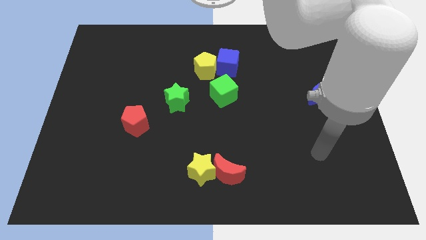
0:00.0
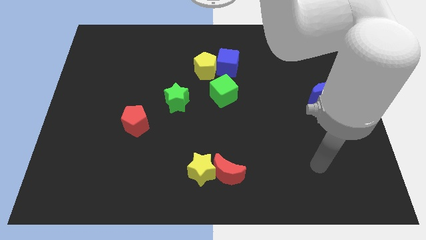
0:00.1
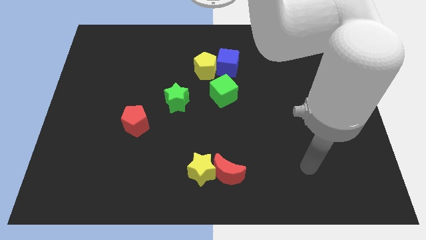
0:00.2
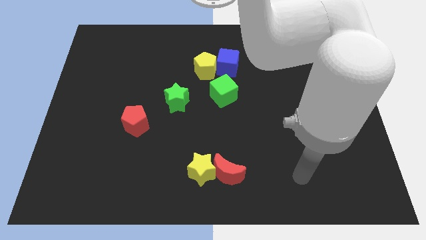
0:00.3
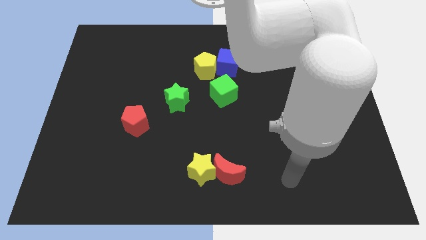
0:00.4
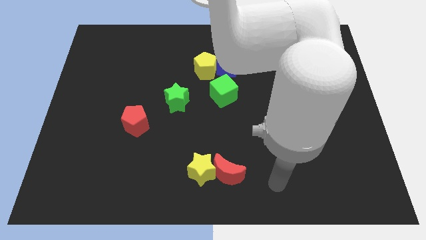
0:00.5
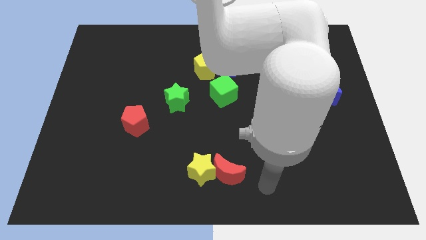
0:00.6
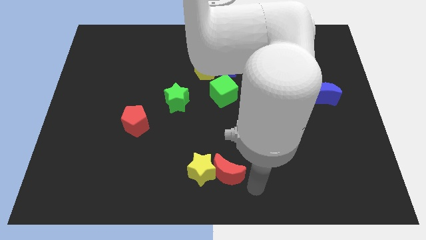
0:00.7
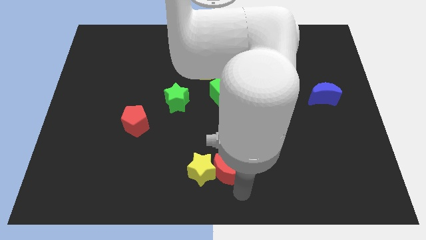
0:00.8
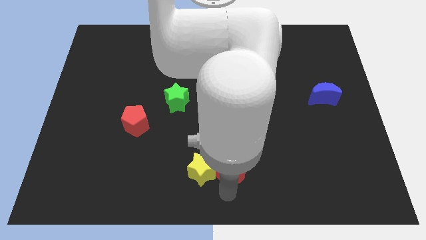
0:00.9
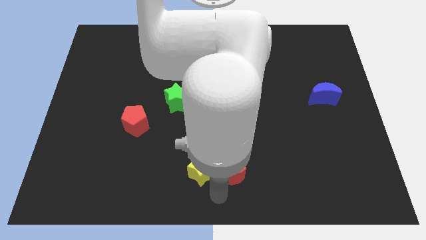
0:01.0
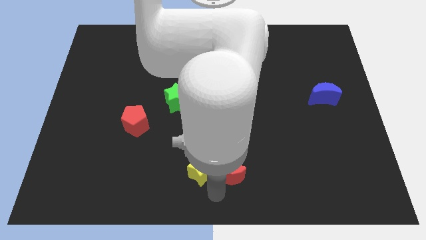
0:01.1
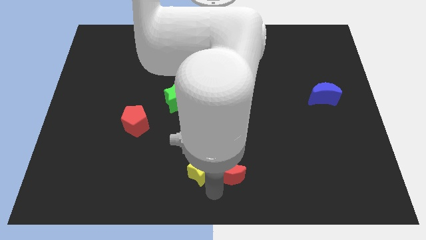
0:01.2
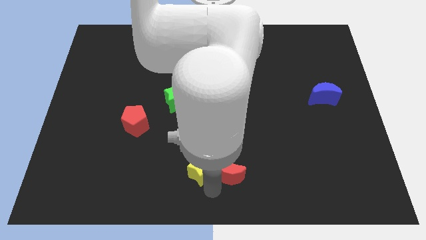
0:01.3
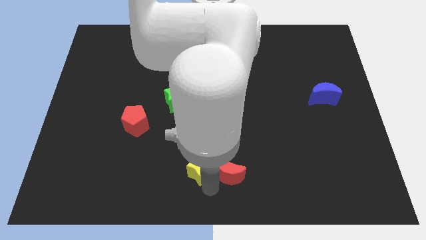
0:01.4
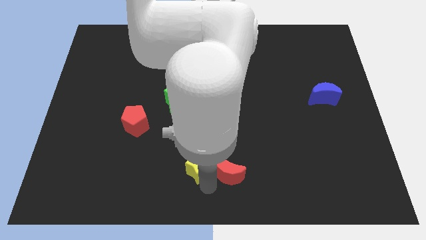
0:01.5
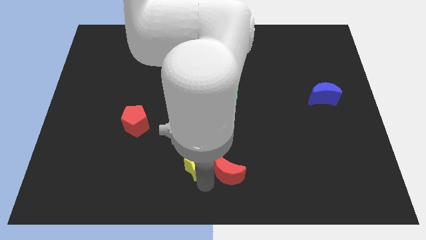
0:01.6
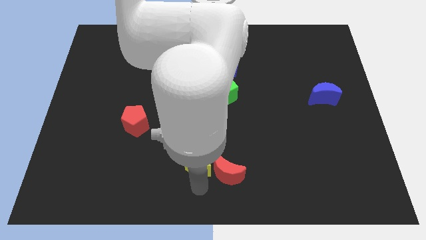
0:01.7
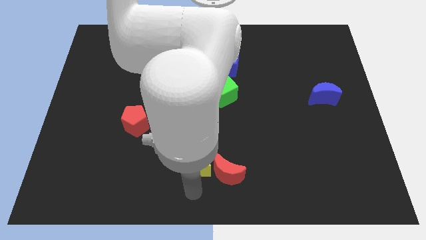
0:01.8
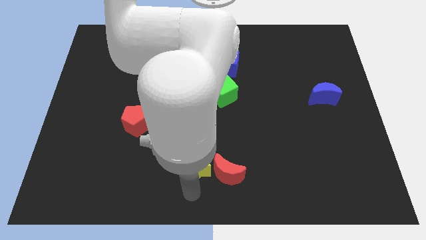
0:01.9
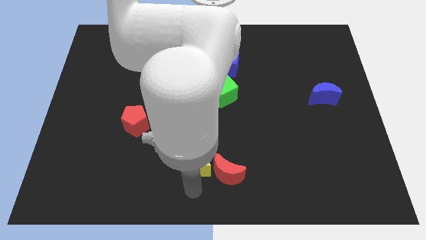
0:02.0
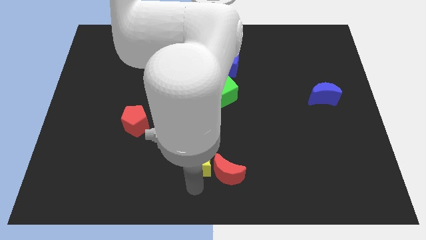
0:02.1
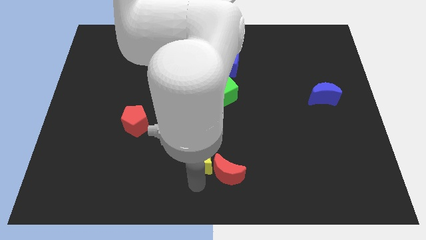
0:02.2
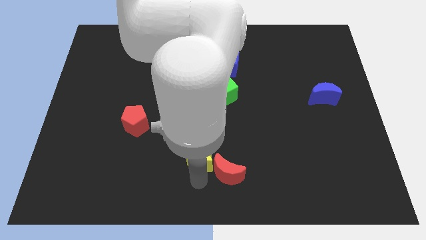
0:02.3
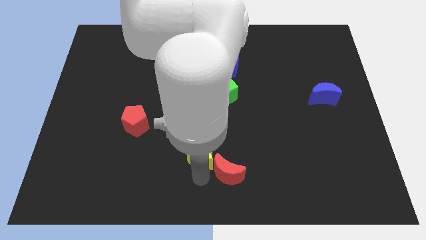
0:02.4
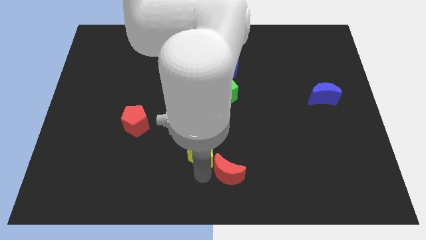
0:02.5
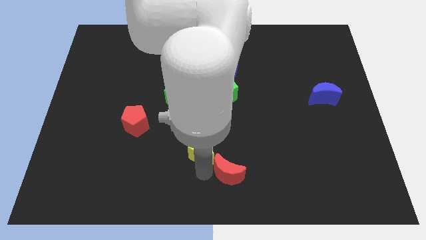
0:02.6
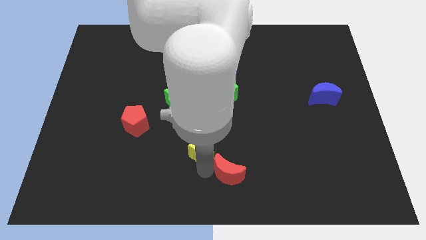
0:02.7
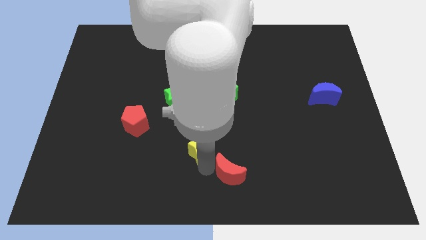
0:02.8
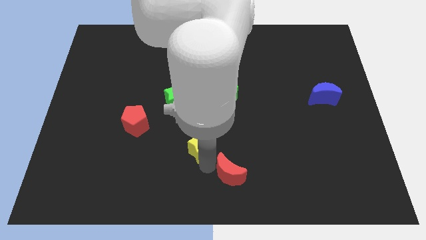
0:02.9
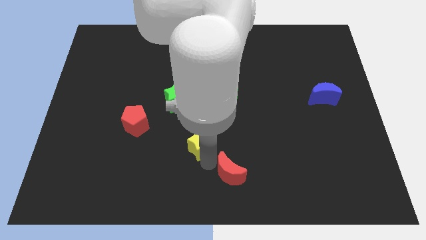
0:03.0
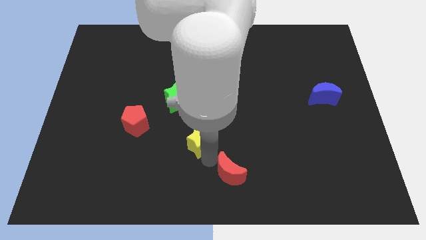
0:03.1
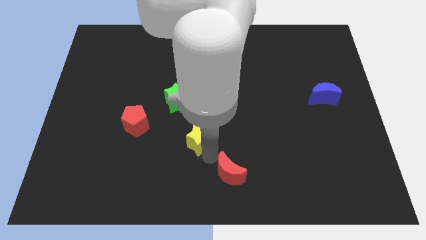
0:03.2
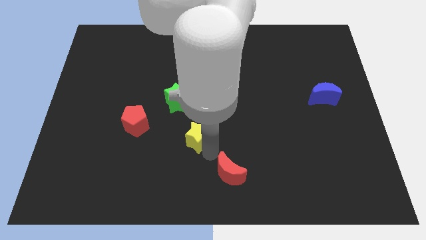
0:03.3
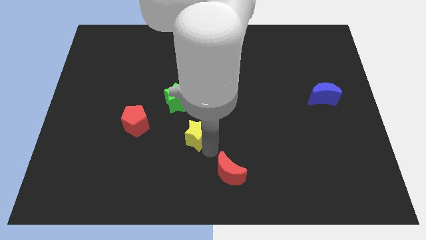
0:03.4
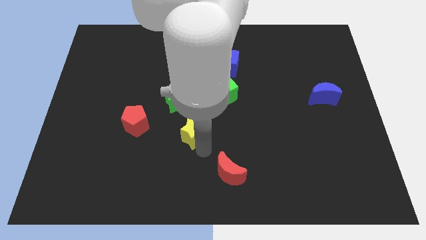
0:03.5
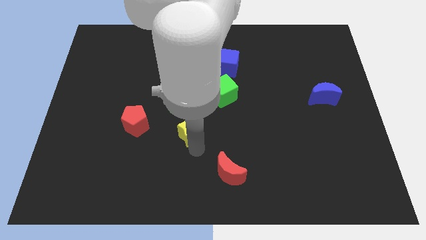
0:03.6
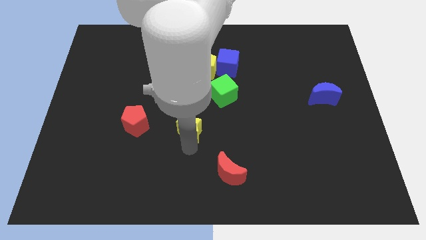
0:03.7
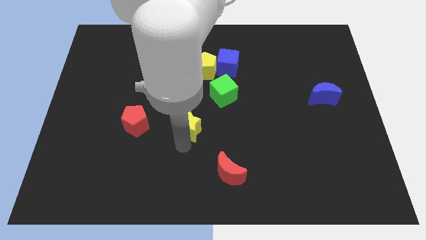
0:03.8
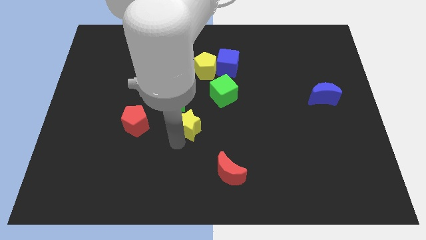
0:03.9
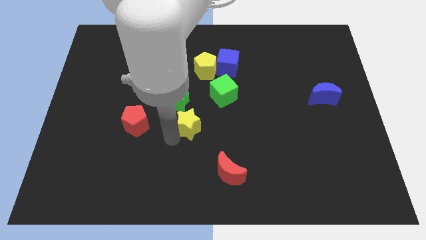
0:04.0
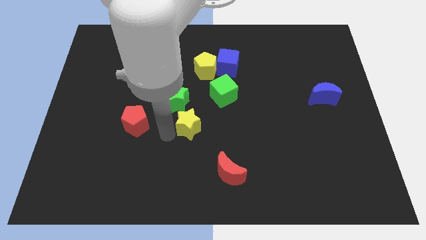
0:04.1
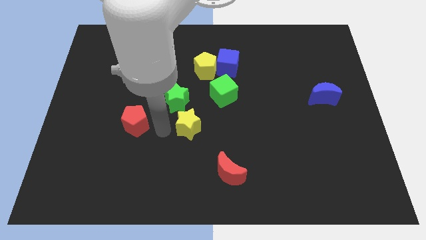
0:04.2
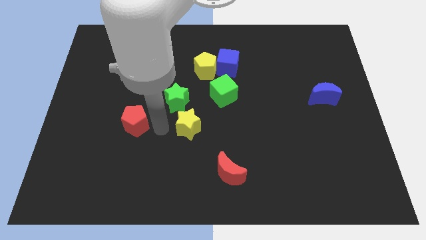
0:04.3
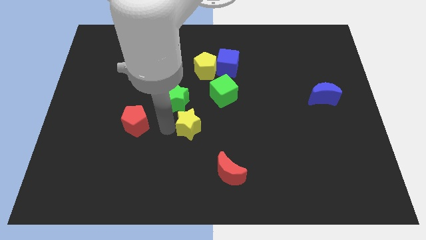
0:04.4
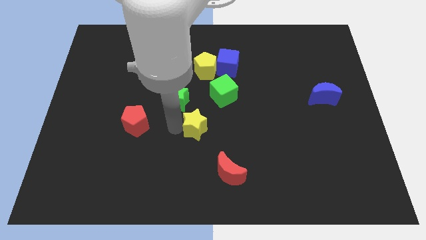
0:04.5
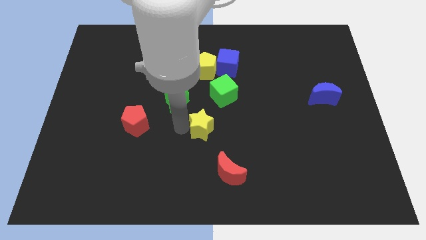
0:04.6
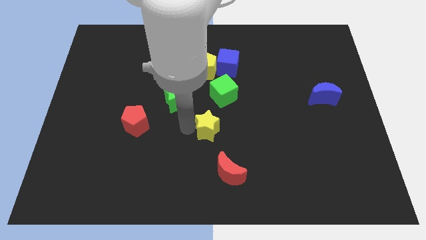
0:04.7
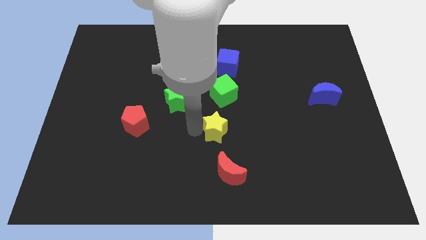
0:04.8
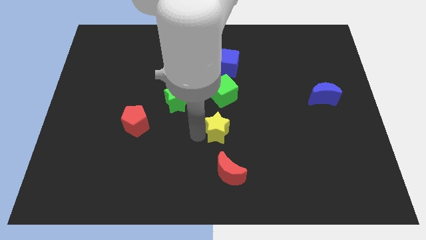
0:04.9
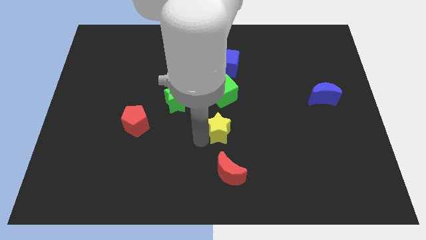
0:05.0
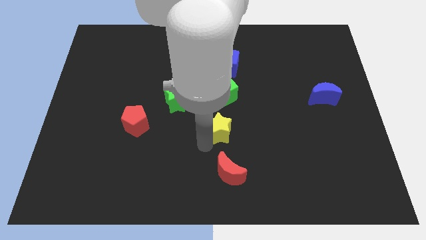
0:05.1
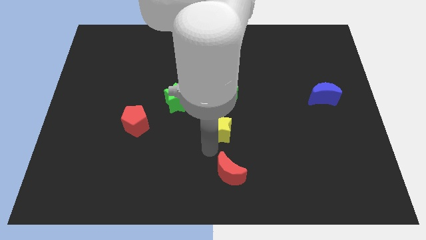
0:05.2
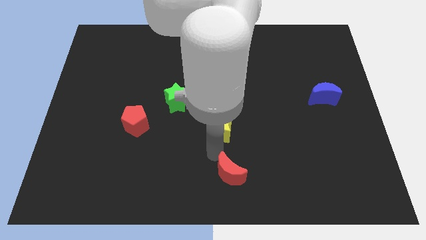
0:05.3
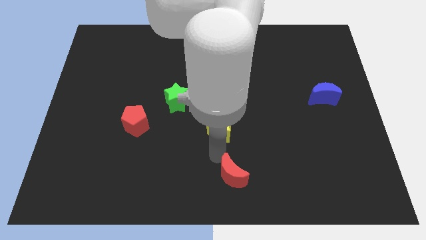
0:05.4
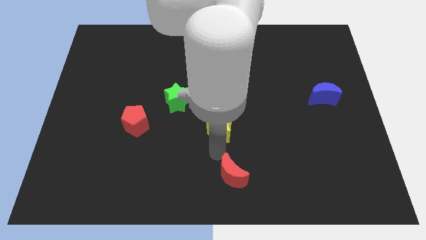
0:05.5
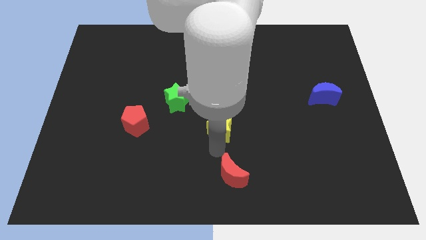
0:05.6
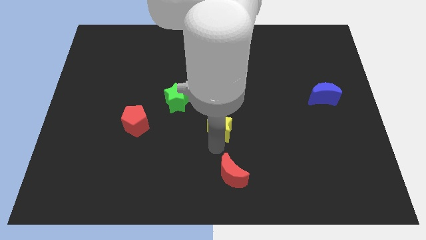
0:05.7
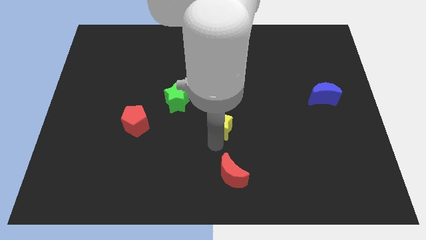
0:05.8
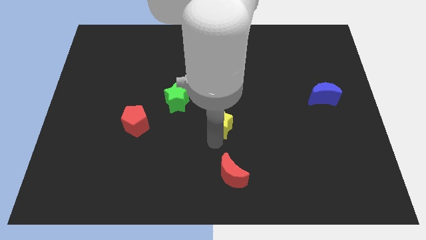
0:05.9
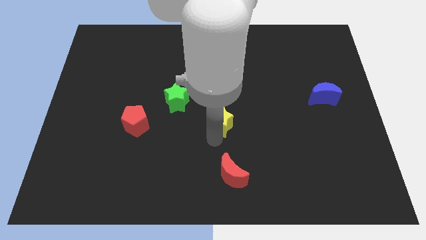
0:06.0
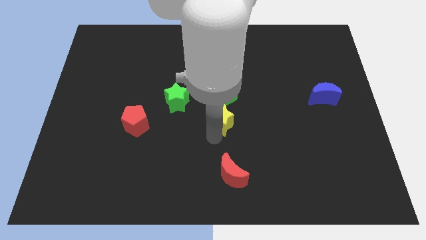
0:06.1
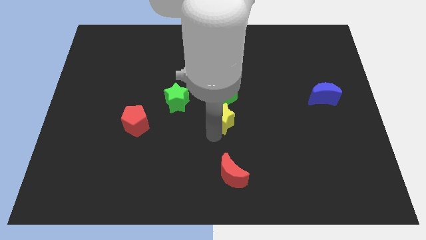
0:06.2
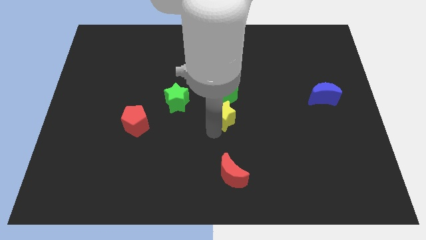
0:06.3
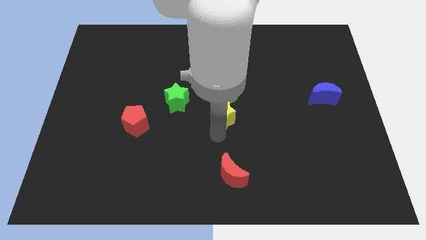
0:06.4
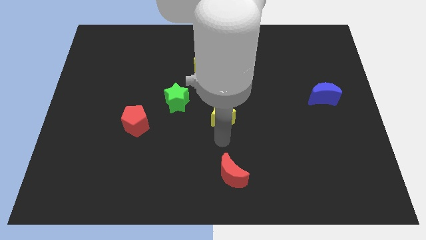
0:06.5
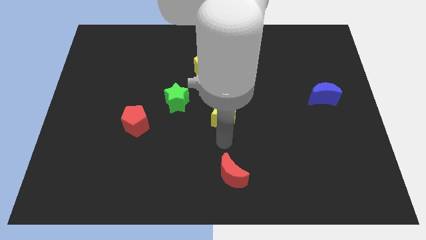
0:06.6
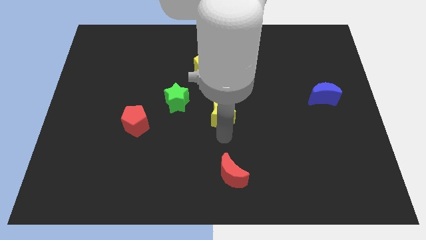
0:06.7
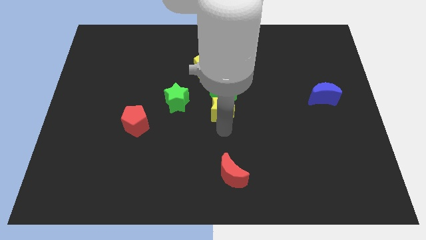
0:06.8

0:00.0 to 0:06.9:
push the yellow star close to the green cube

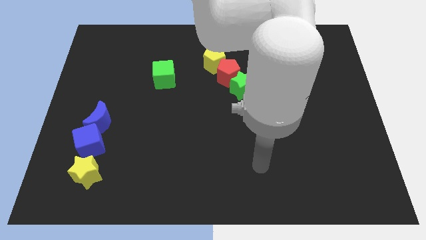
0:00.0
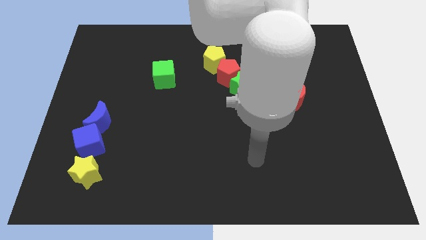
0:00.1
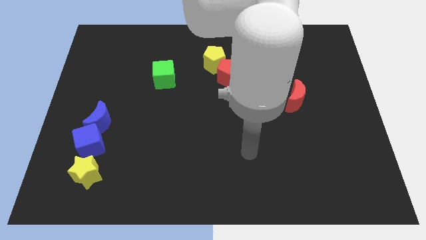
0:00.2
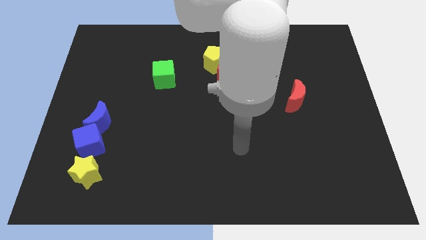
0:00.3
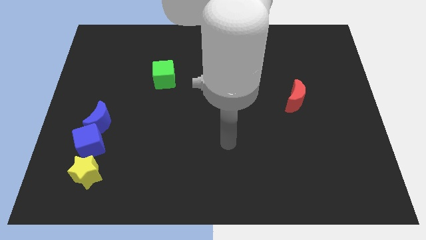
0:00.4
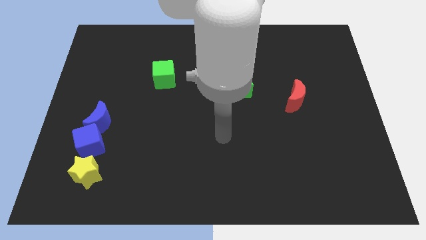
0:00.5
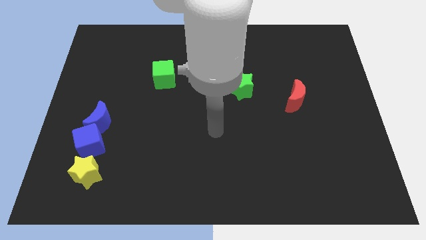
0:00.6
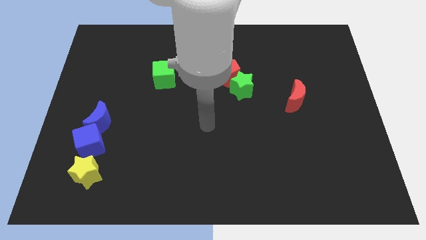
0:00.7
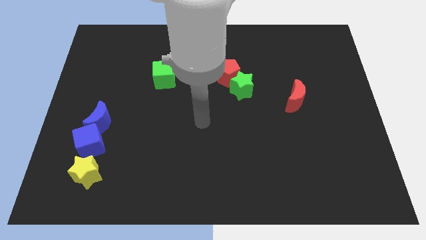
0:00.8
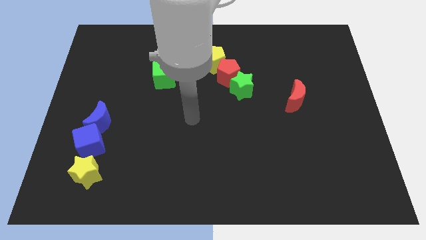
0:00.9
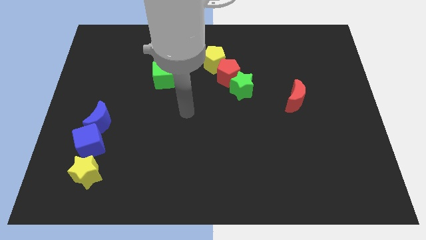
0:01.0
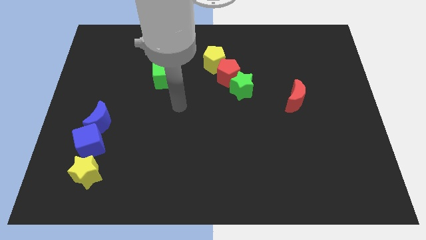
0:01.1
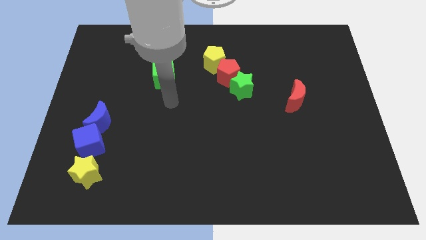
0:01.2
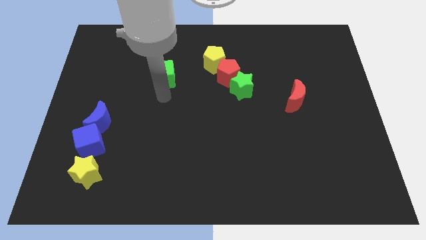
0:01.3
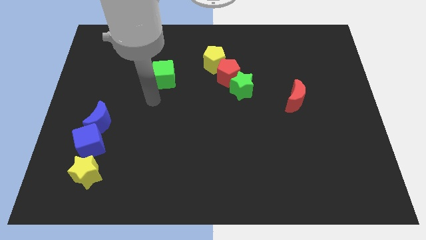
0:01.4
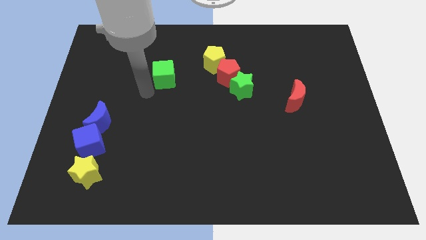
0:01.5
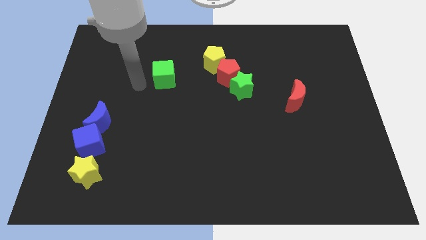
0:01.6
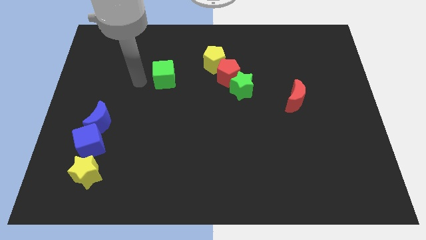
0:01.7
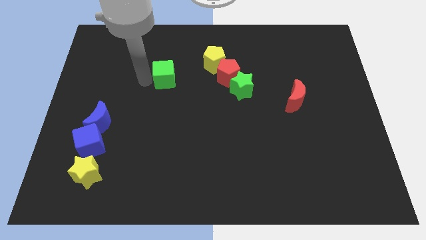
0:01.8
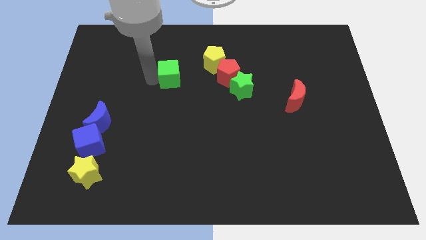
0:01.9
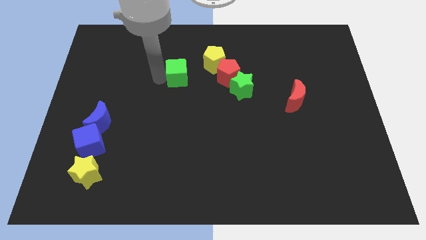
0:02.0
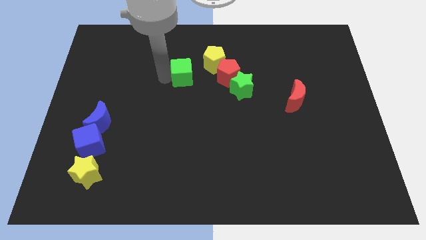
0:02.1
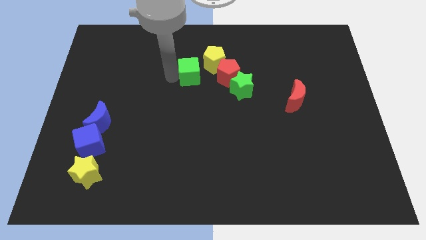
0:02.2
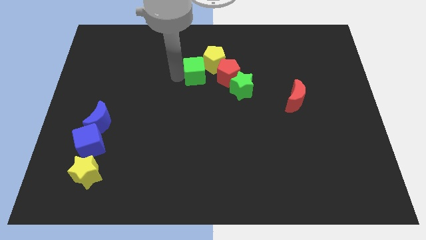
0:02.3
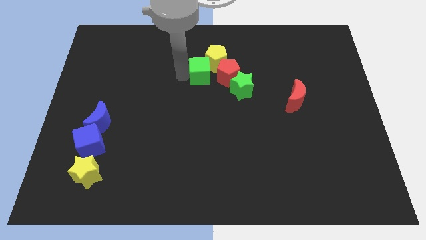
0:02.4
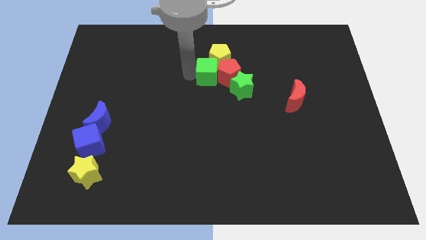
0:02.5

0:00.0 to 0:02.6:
move the green cube towards the red pentagon
